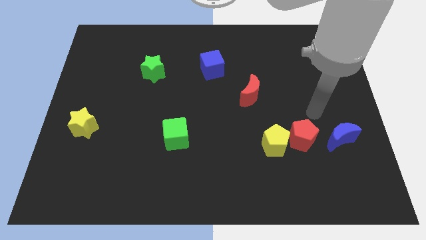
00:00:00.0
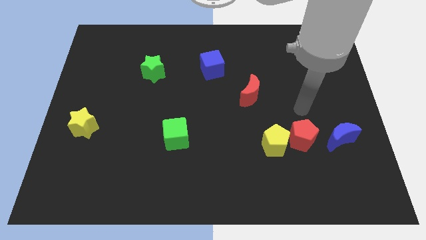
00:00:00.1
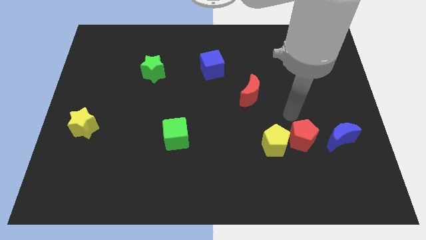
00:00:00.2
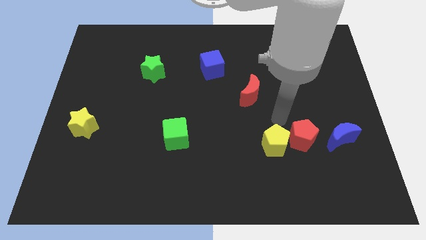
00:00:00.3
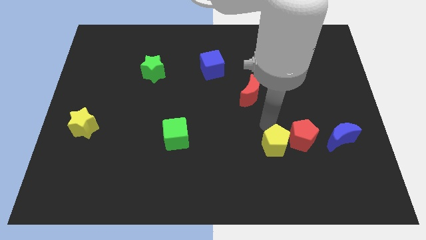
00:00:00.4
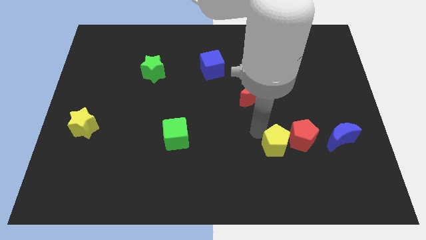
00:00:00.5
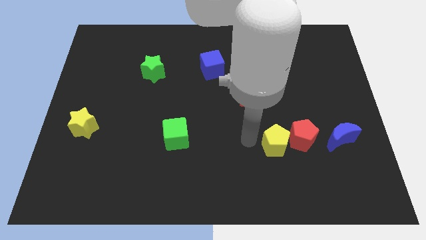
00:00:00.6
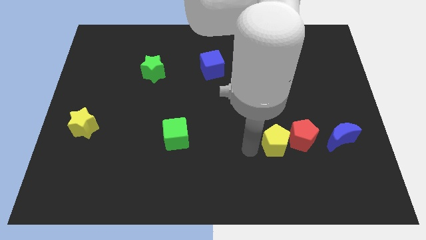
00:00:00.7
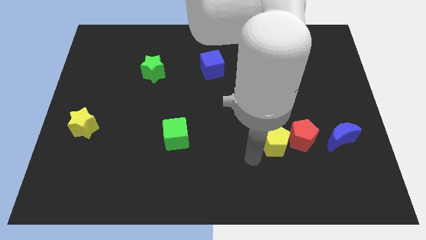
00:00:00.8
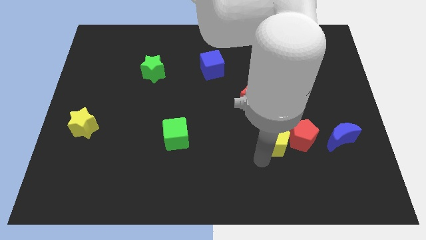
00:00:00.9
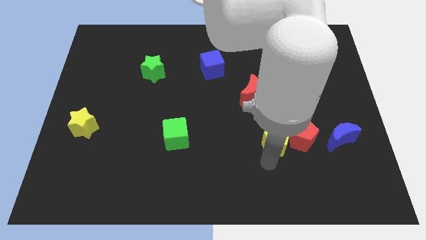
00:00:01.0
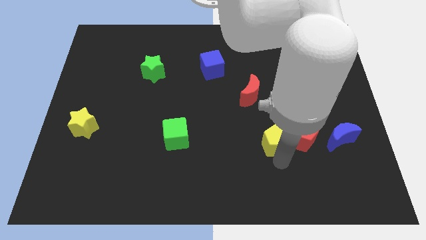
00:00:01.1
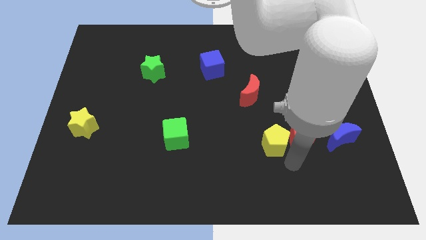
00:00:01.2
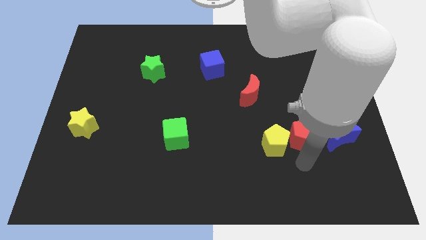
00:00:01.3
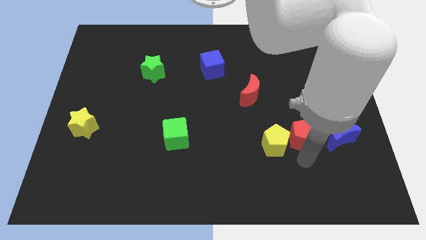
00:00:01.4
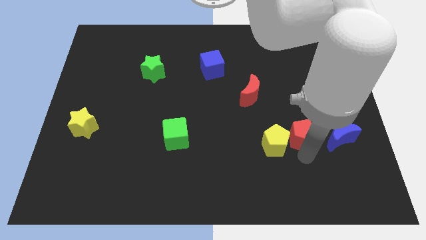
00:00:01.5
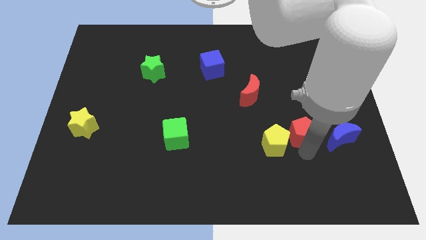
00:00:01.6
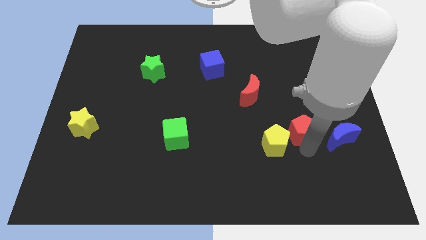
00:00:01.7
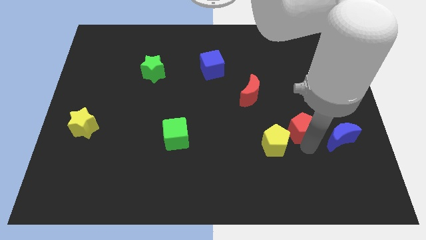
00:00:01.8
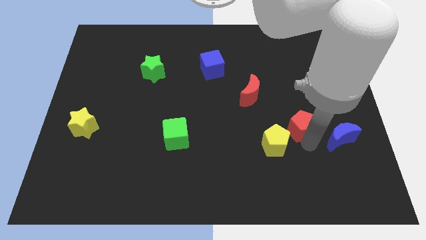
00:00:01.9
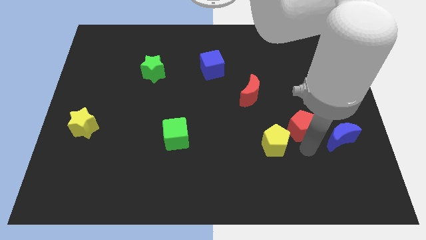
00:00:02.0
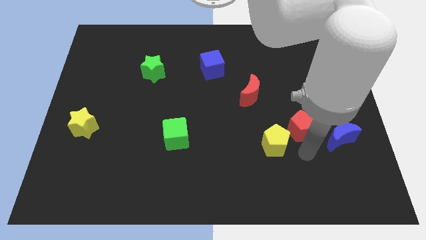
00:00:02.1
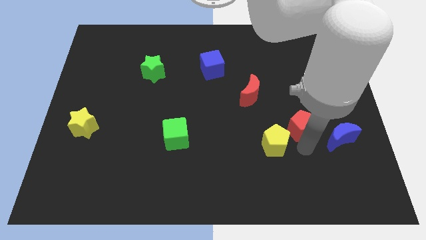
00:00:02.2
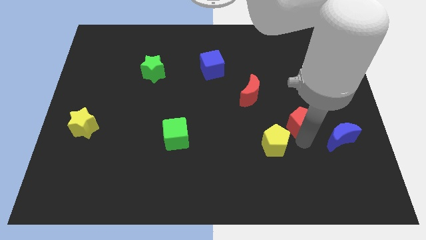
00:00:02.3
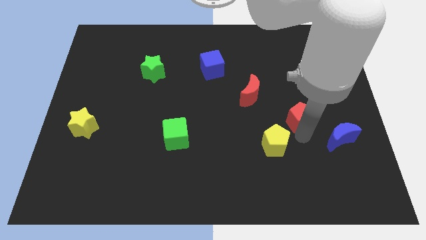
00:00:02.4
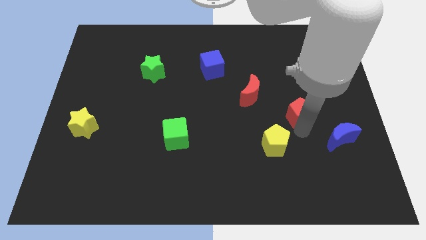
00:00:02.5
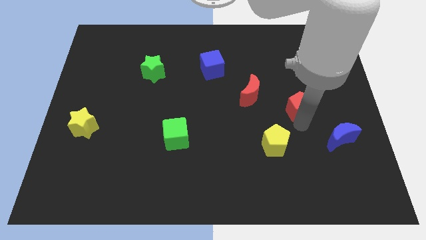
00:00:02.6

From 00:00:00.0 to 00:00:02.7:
push the red pentagon up slightly

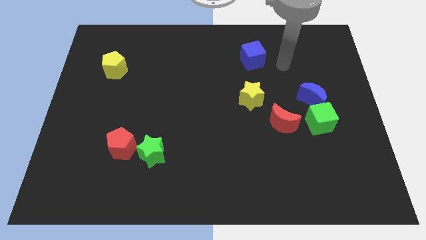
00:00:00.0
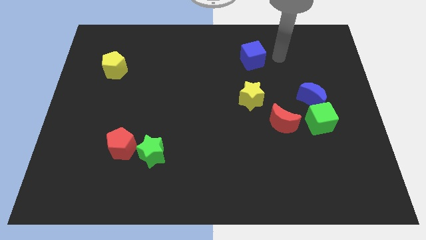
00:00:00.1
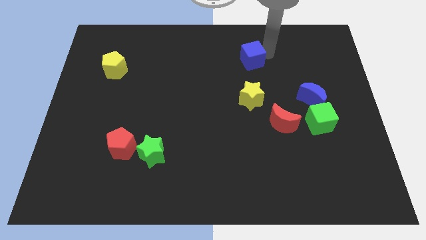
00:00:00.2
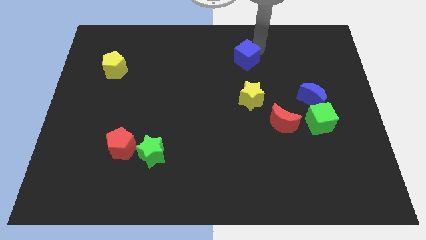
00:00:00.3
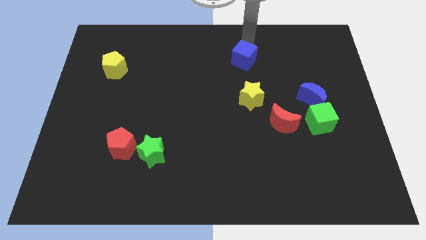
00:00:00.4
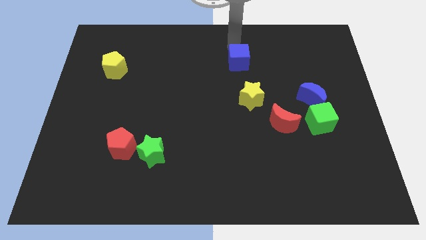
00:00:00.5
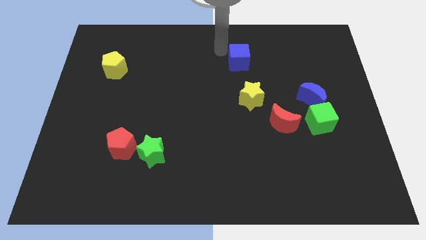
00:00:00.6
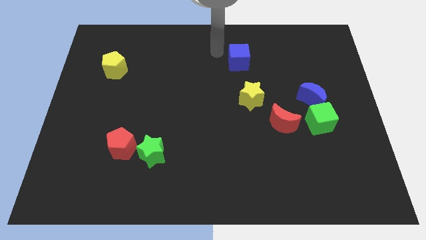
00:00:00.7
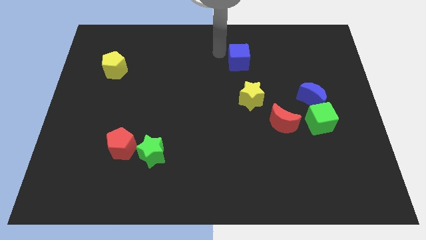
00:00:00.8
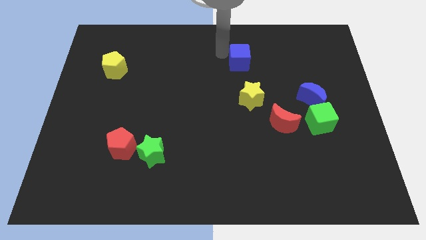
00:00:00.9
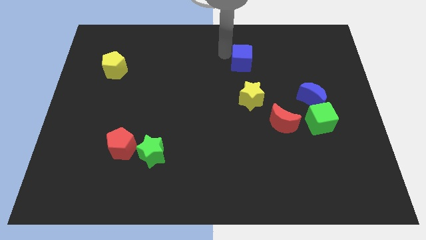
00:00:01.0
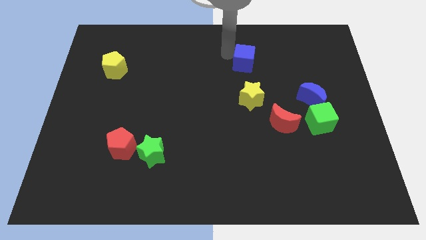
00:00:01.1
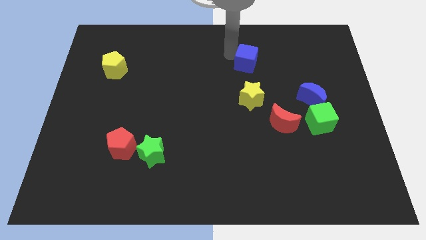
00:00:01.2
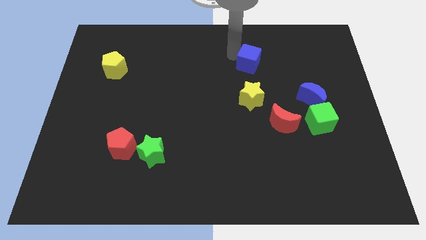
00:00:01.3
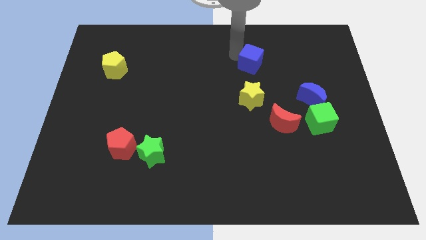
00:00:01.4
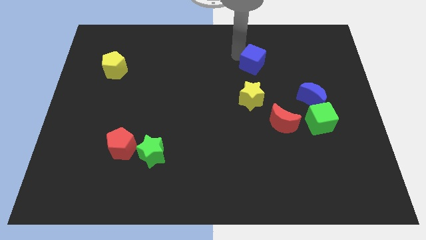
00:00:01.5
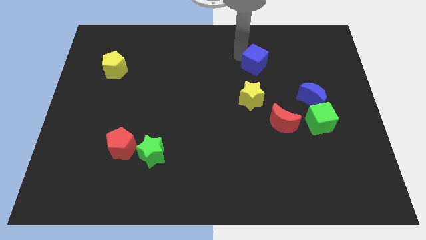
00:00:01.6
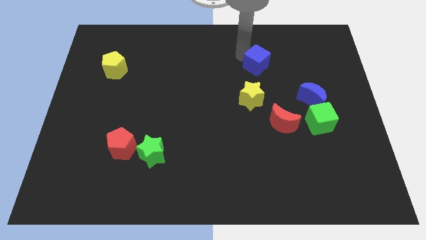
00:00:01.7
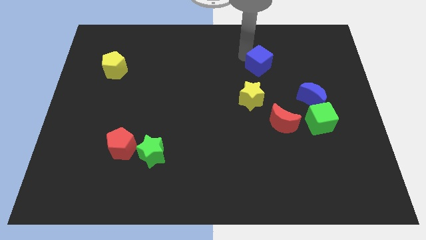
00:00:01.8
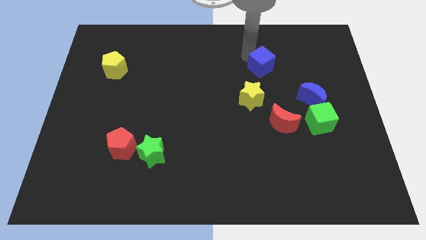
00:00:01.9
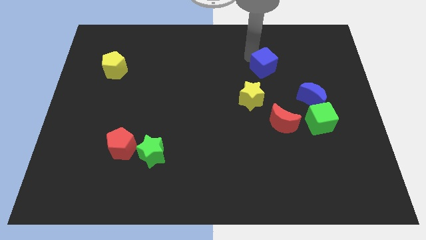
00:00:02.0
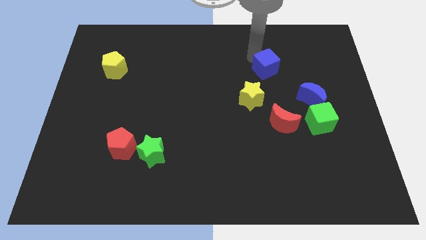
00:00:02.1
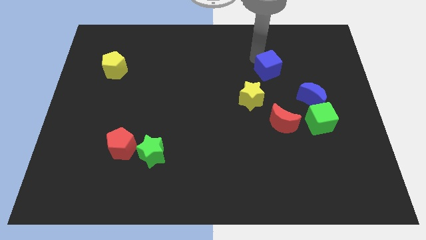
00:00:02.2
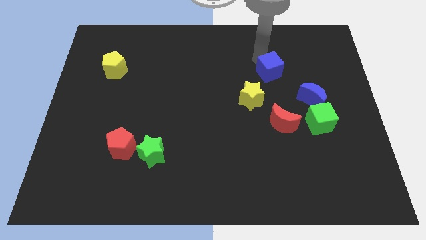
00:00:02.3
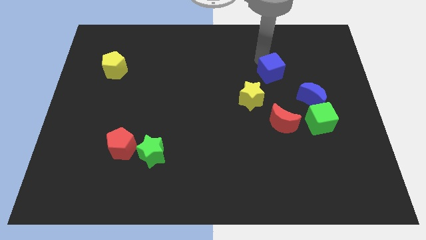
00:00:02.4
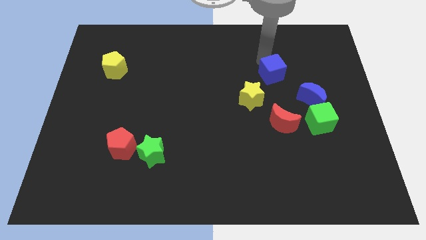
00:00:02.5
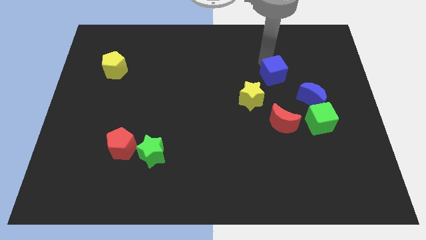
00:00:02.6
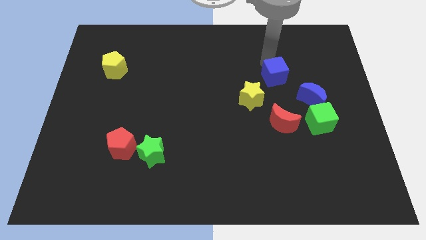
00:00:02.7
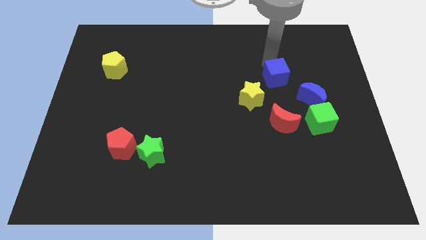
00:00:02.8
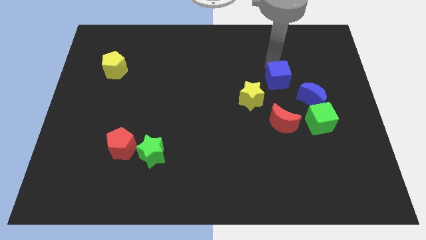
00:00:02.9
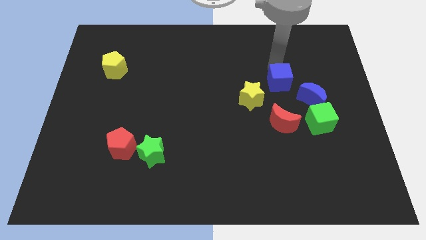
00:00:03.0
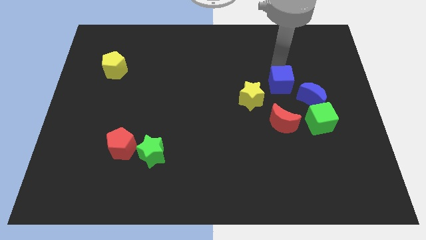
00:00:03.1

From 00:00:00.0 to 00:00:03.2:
push the blue cube downwards a little

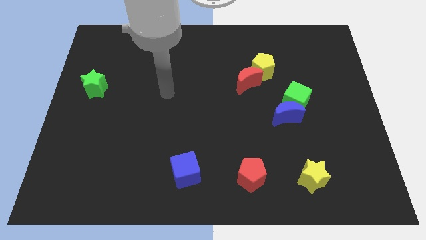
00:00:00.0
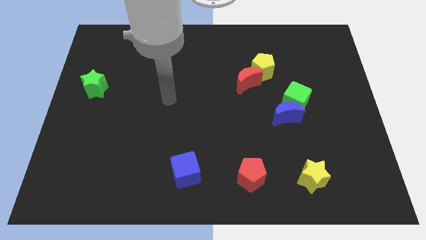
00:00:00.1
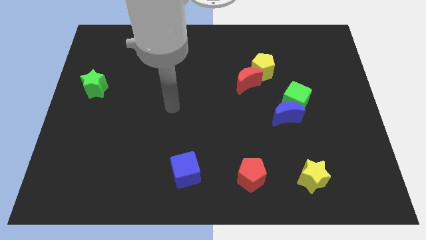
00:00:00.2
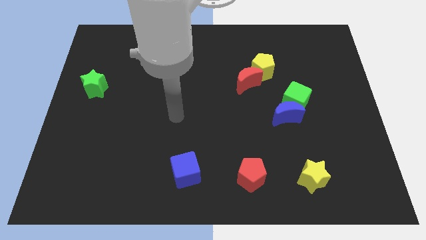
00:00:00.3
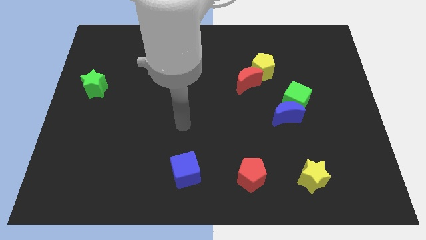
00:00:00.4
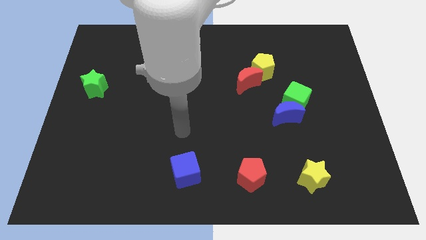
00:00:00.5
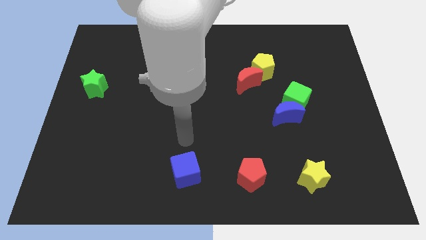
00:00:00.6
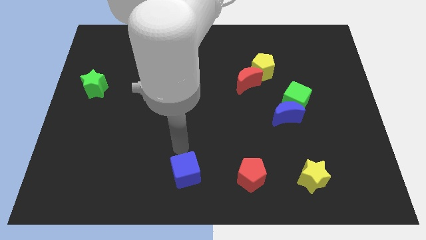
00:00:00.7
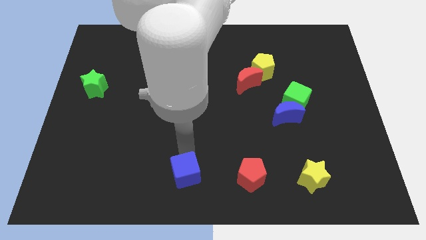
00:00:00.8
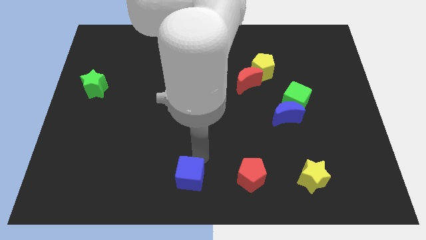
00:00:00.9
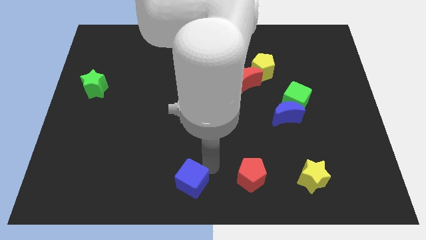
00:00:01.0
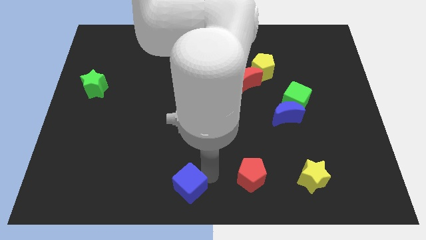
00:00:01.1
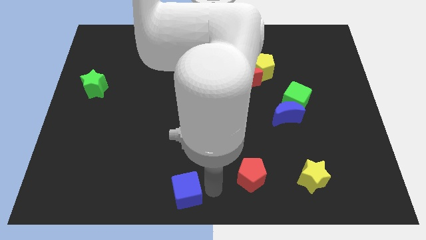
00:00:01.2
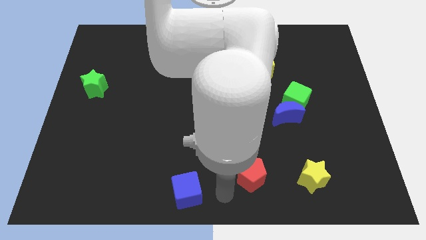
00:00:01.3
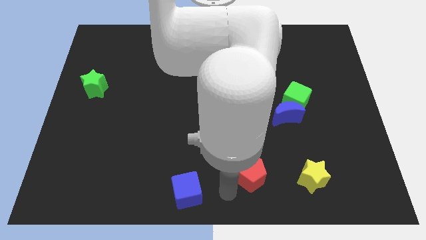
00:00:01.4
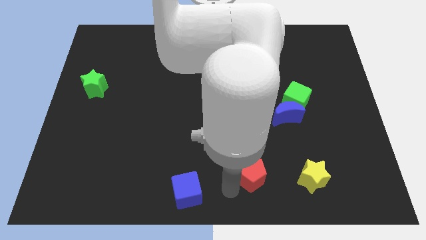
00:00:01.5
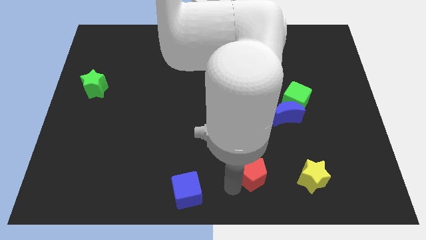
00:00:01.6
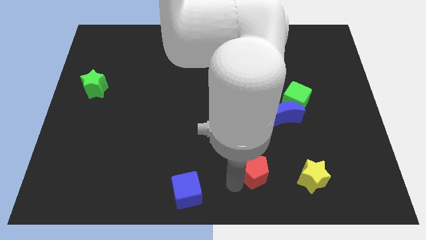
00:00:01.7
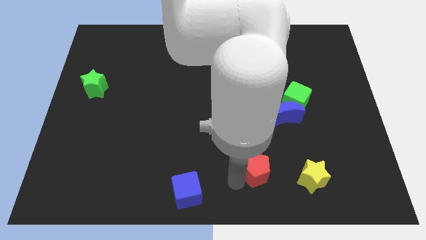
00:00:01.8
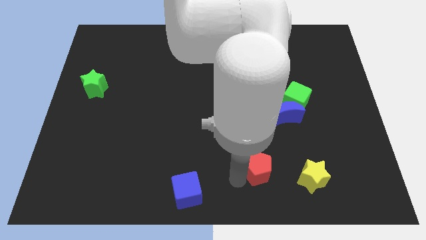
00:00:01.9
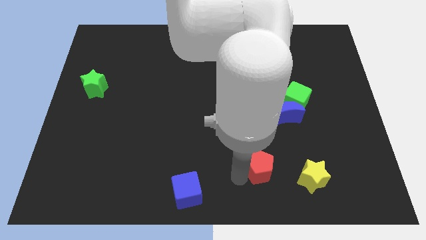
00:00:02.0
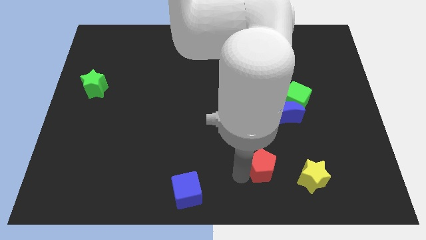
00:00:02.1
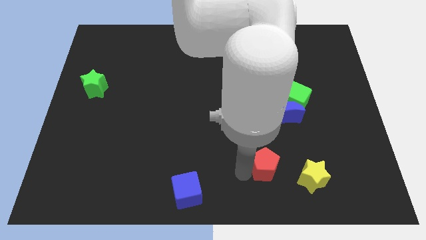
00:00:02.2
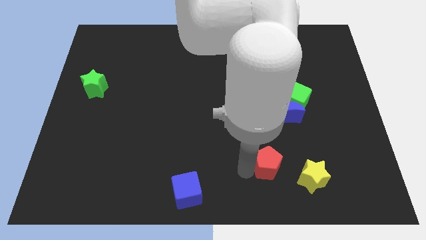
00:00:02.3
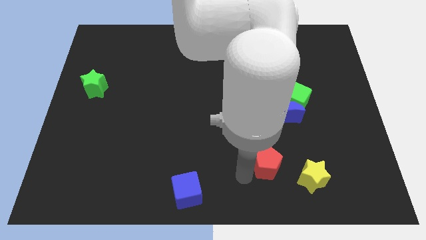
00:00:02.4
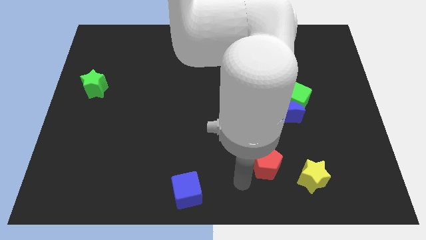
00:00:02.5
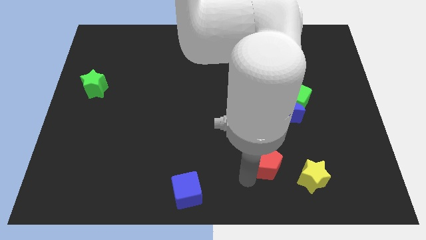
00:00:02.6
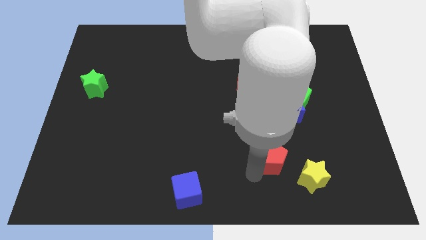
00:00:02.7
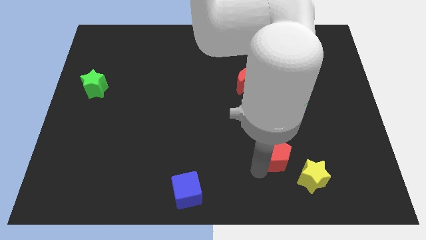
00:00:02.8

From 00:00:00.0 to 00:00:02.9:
move the red pentagon a little bit up and then right
